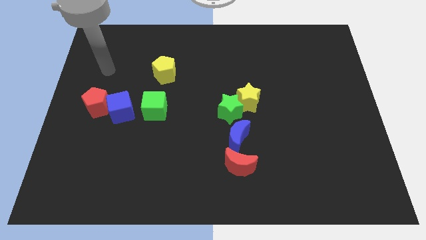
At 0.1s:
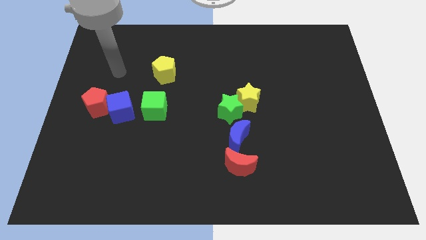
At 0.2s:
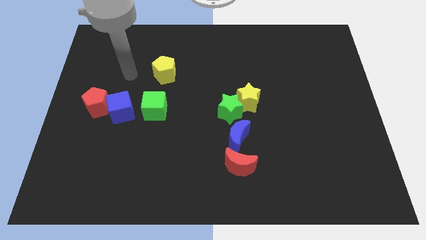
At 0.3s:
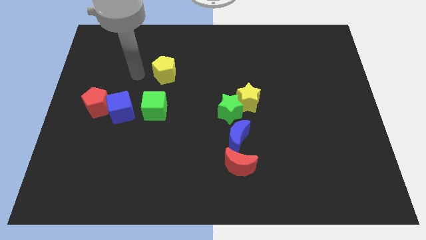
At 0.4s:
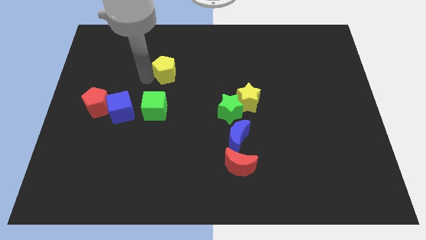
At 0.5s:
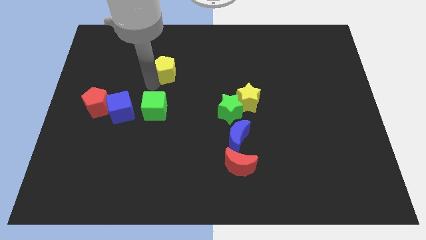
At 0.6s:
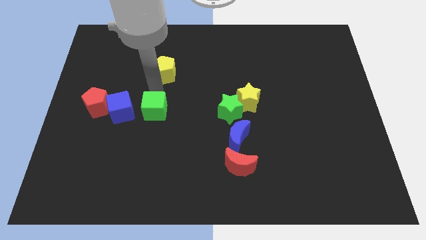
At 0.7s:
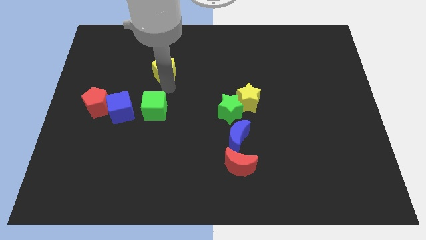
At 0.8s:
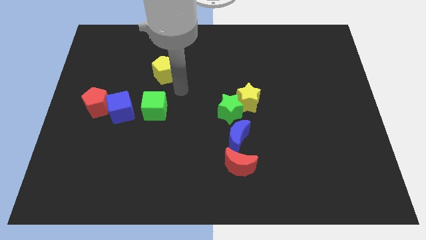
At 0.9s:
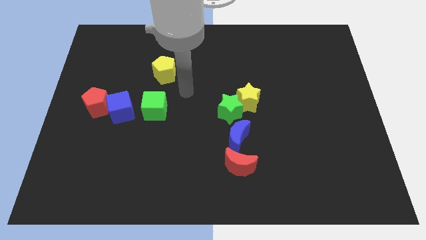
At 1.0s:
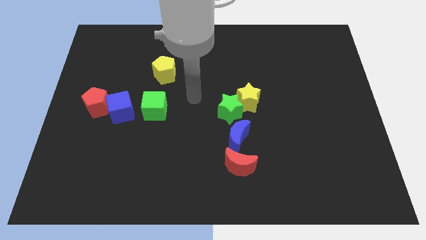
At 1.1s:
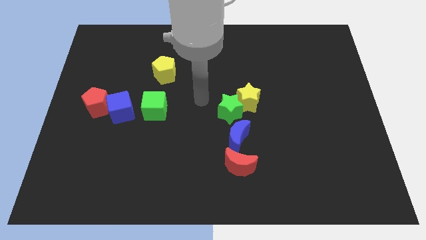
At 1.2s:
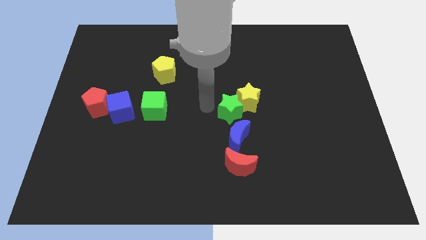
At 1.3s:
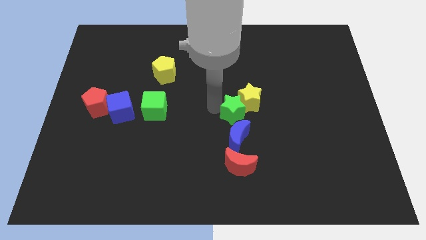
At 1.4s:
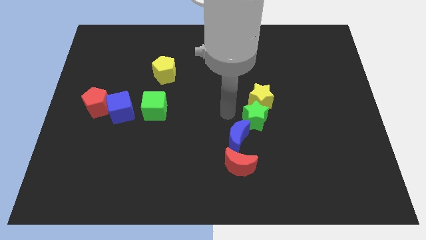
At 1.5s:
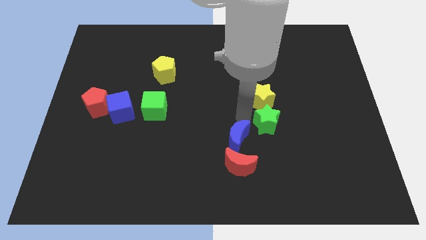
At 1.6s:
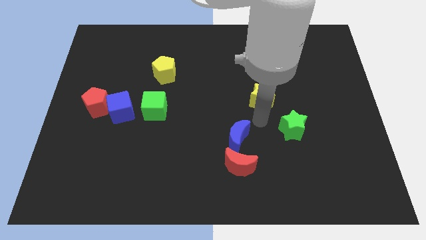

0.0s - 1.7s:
separate the yellow star from the green star

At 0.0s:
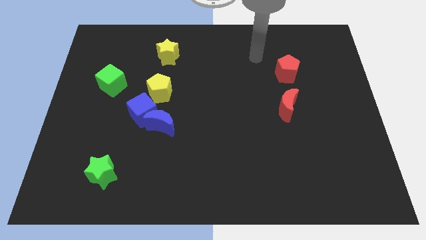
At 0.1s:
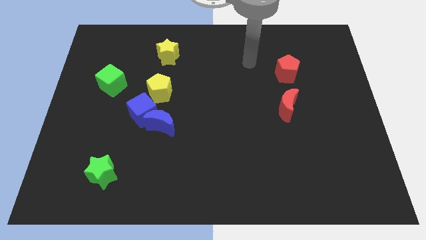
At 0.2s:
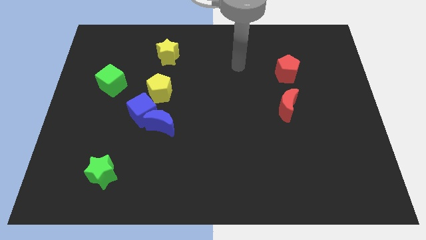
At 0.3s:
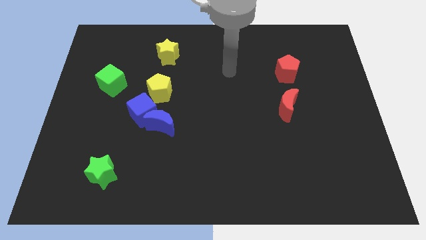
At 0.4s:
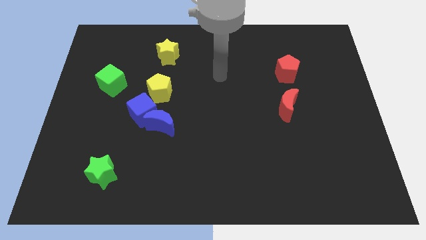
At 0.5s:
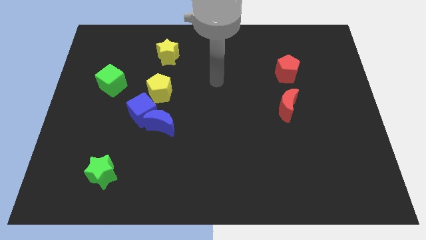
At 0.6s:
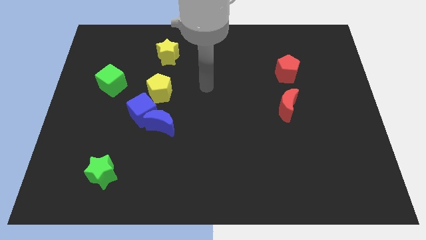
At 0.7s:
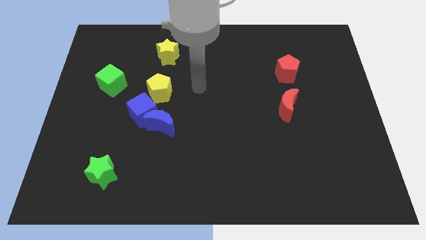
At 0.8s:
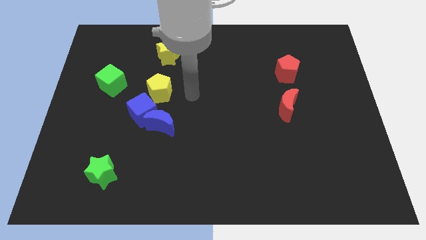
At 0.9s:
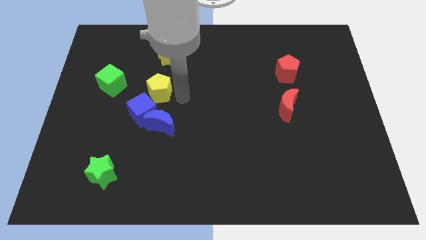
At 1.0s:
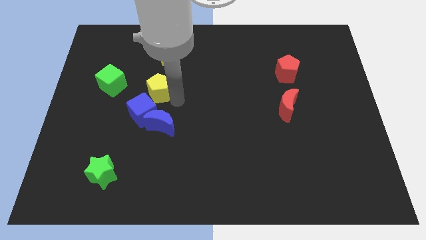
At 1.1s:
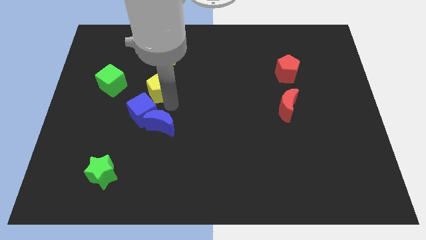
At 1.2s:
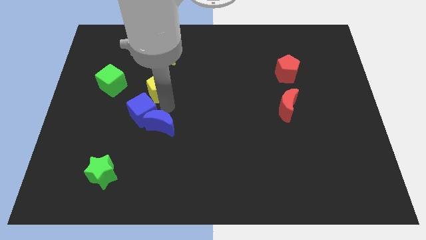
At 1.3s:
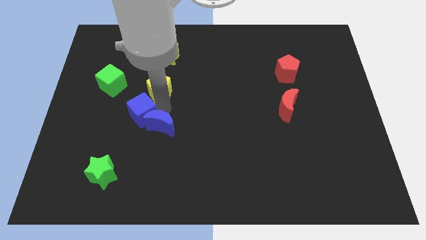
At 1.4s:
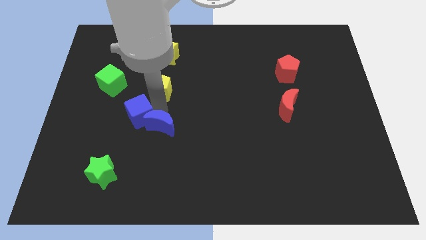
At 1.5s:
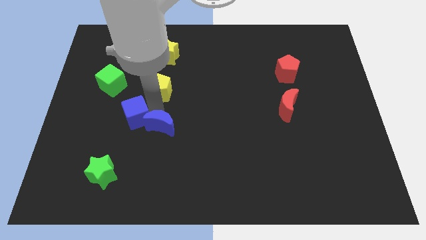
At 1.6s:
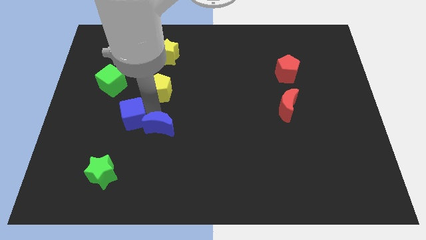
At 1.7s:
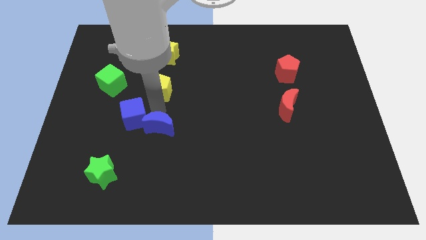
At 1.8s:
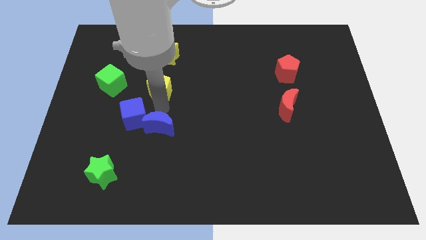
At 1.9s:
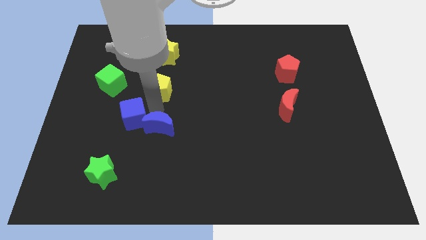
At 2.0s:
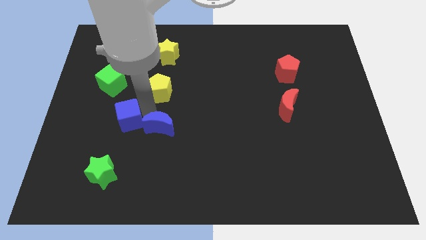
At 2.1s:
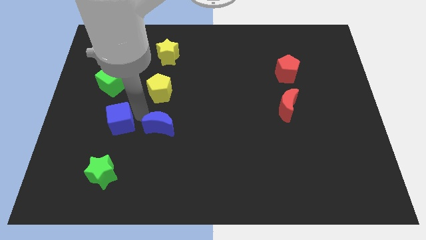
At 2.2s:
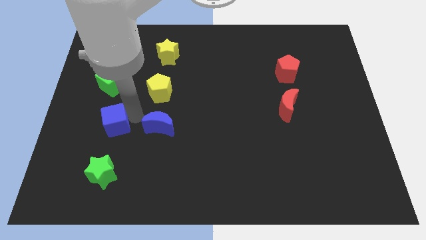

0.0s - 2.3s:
move the blue cube away from the blue moon and yellow pentagon

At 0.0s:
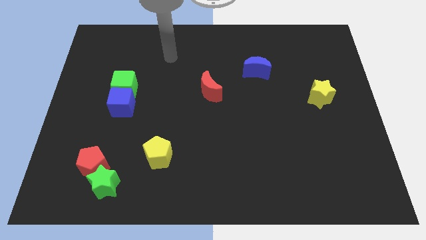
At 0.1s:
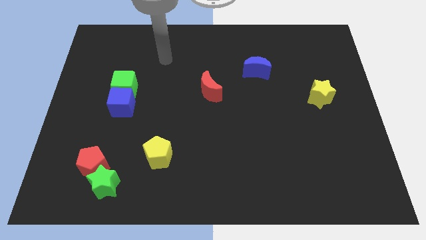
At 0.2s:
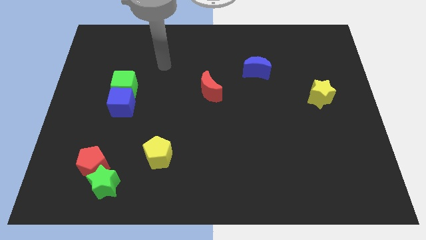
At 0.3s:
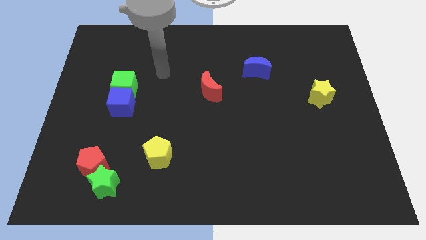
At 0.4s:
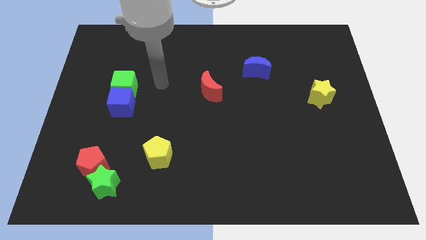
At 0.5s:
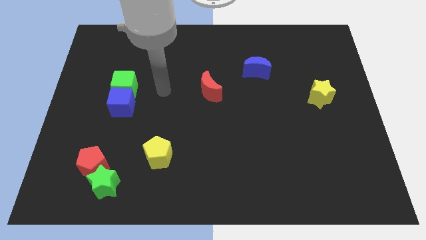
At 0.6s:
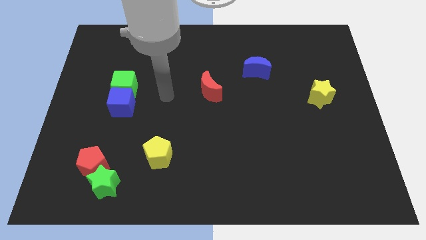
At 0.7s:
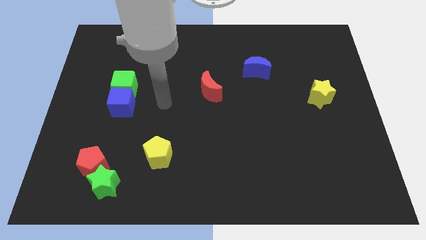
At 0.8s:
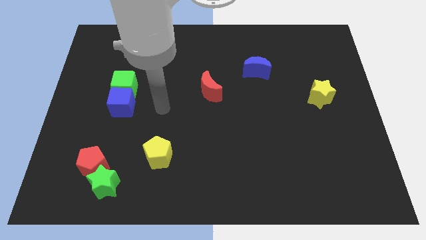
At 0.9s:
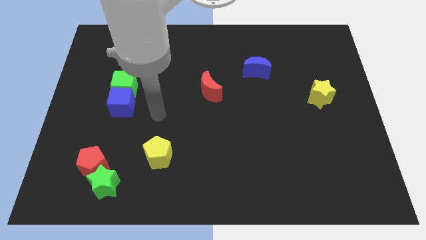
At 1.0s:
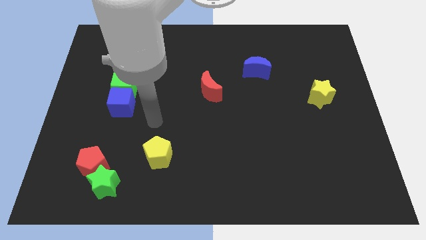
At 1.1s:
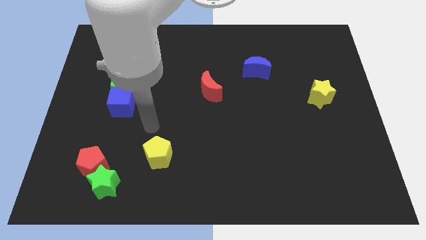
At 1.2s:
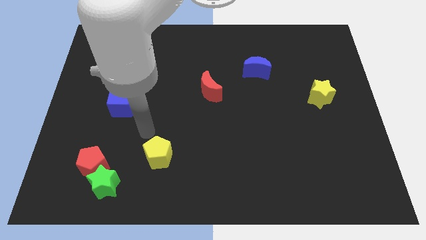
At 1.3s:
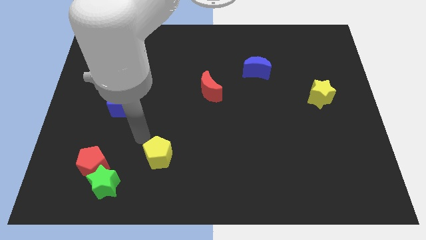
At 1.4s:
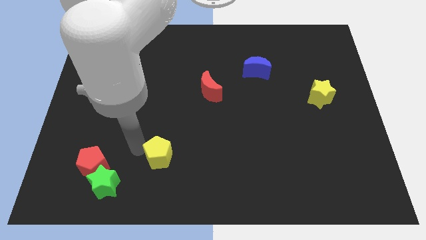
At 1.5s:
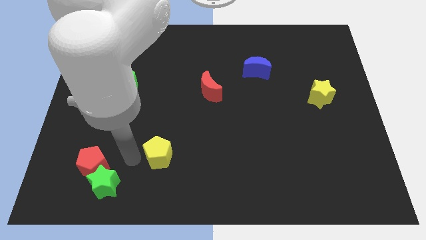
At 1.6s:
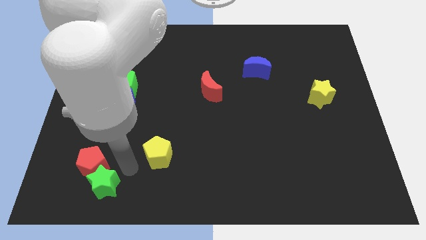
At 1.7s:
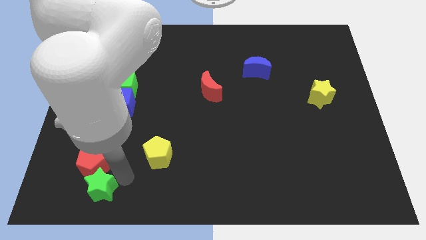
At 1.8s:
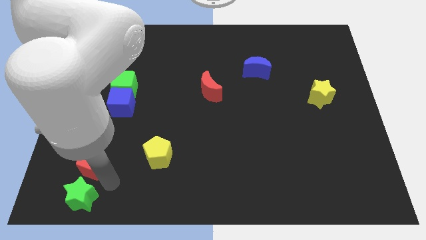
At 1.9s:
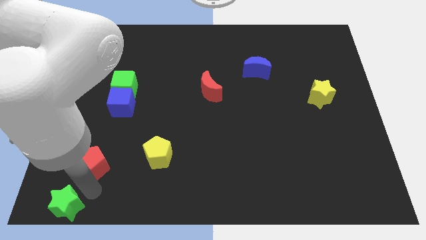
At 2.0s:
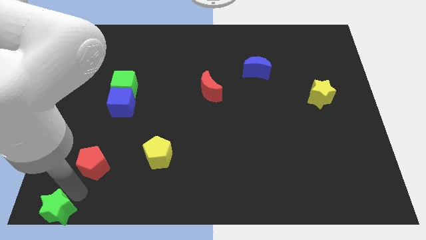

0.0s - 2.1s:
separate the red pentagon from the green star

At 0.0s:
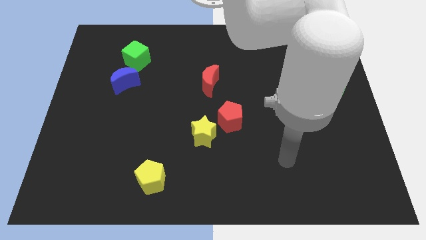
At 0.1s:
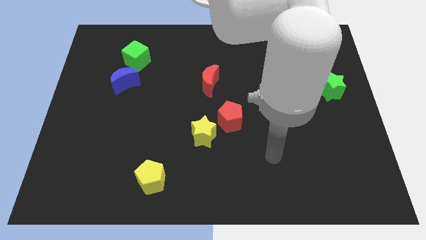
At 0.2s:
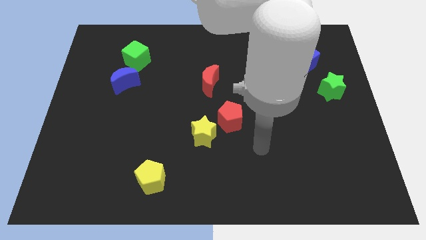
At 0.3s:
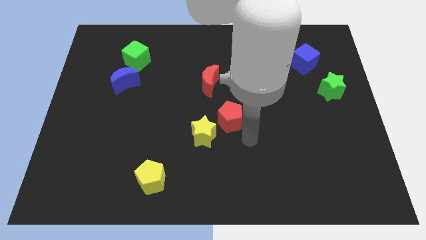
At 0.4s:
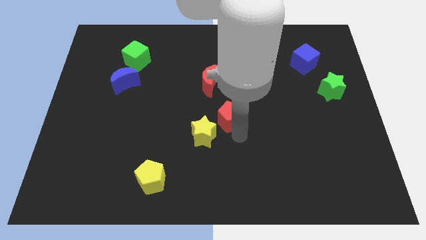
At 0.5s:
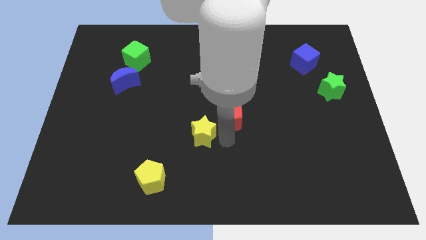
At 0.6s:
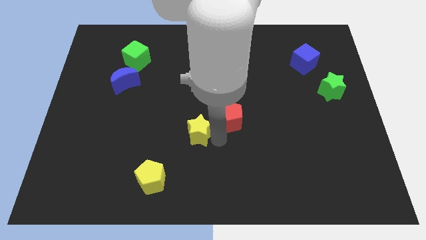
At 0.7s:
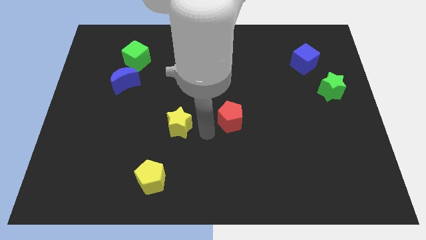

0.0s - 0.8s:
move the red pentagon away from the yellow star

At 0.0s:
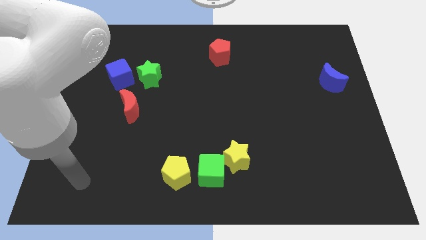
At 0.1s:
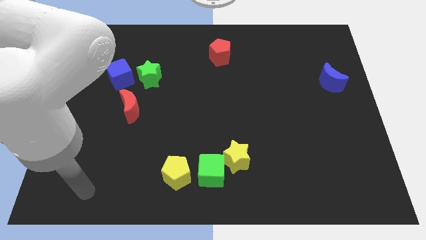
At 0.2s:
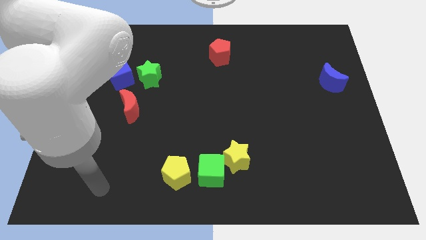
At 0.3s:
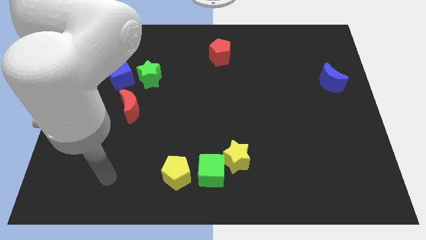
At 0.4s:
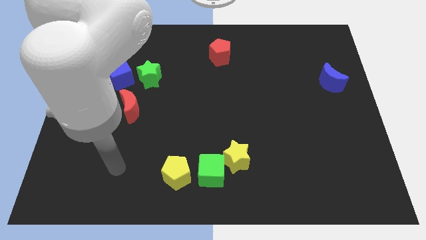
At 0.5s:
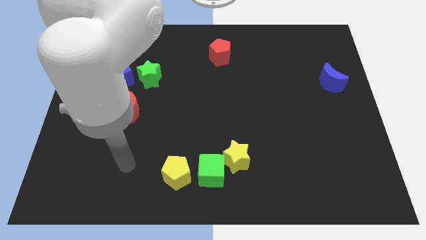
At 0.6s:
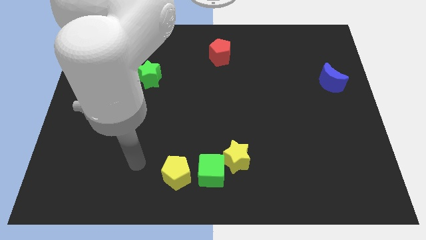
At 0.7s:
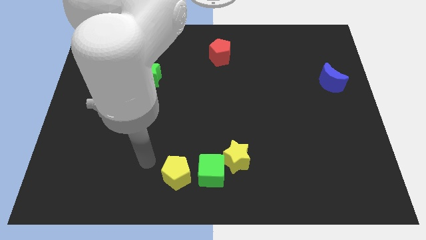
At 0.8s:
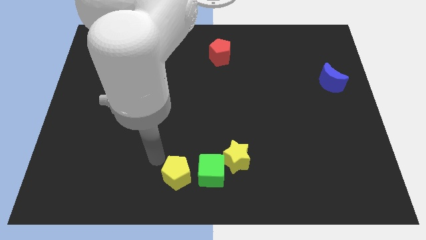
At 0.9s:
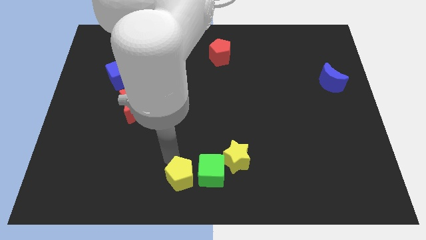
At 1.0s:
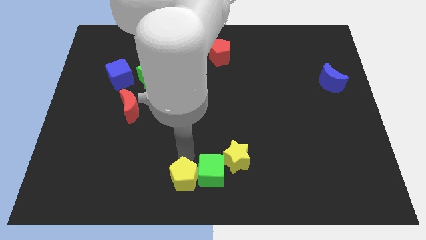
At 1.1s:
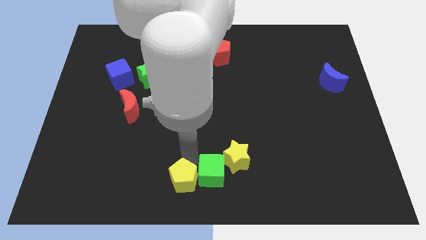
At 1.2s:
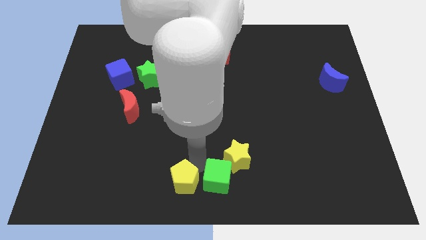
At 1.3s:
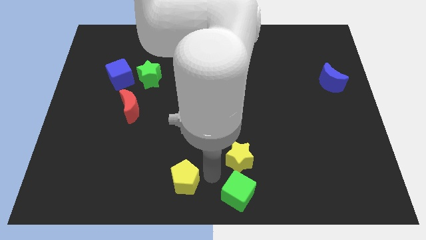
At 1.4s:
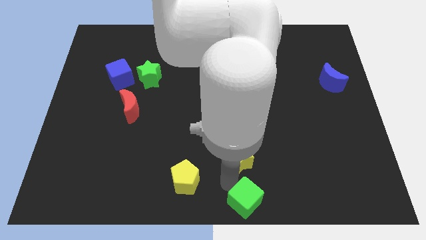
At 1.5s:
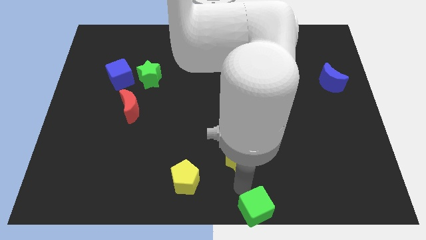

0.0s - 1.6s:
separate the yellow star from the green cube

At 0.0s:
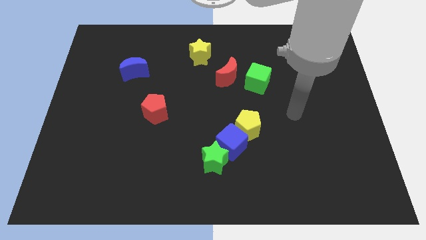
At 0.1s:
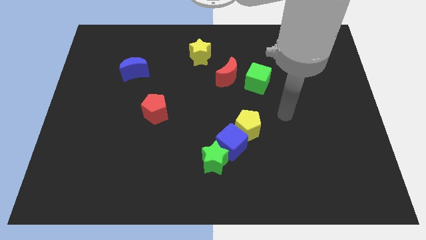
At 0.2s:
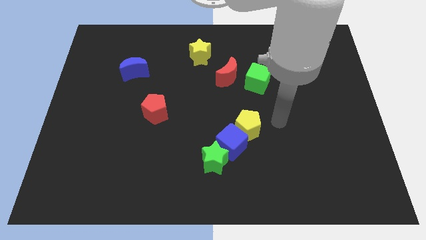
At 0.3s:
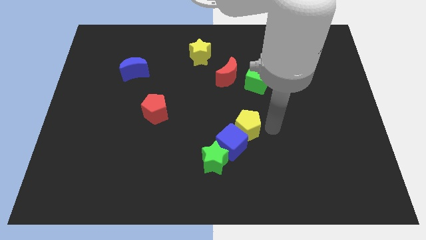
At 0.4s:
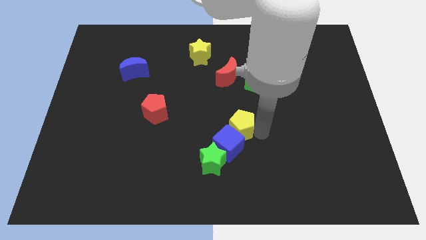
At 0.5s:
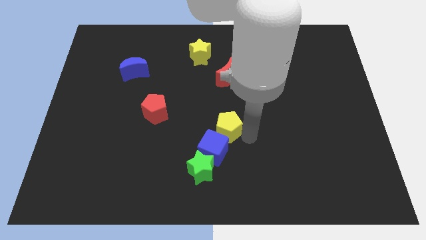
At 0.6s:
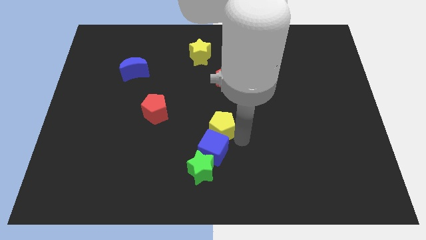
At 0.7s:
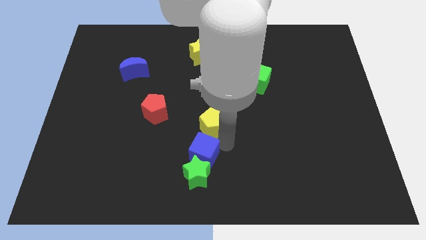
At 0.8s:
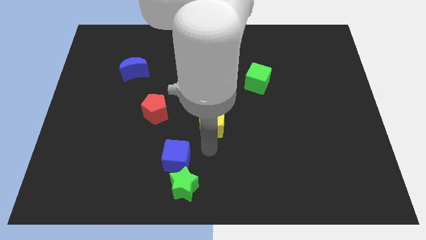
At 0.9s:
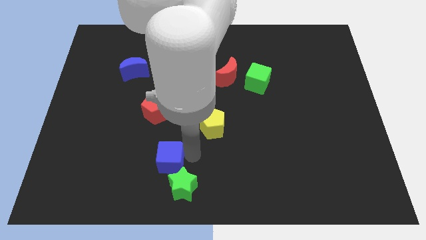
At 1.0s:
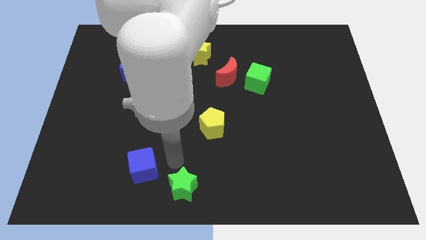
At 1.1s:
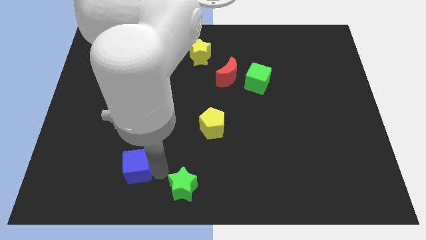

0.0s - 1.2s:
move the green star away from the blue cube
